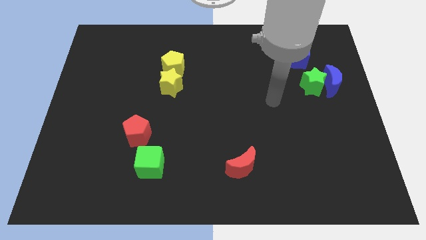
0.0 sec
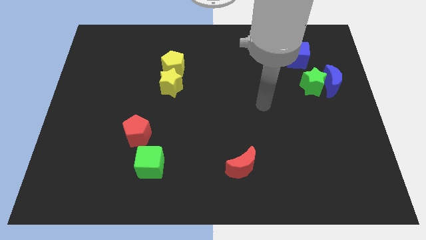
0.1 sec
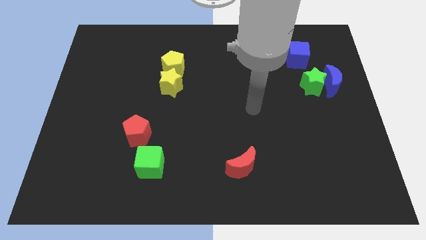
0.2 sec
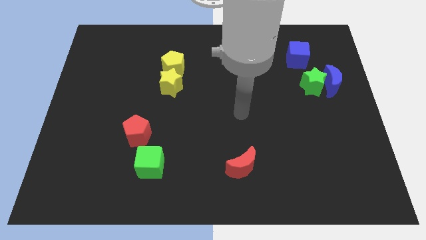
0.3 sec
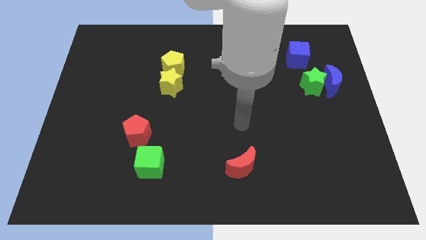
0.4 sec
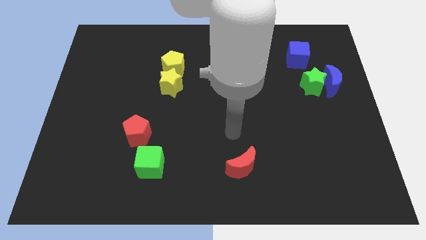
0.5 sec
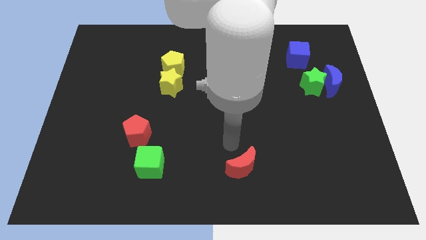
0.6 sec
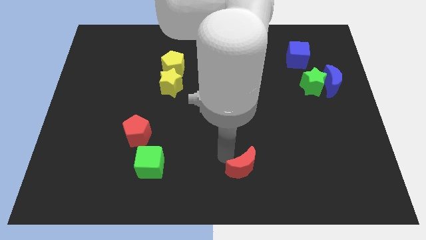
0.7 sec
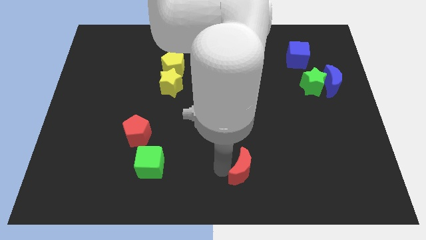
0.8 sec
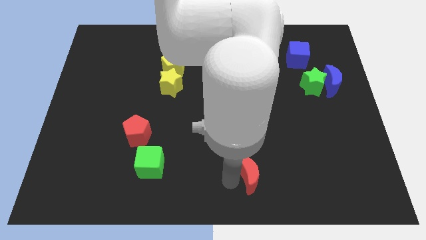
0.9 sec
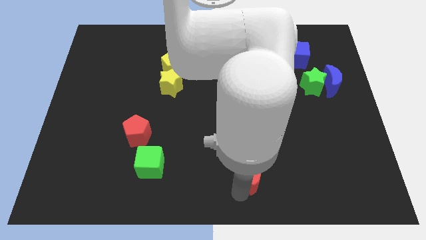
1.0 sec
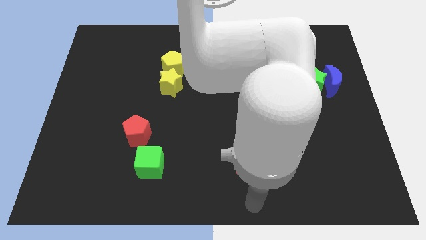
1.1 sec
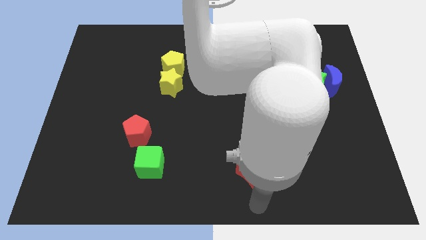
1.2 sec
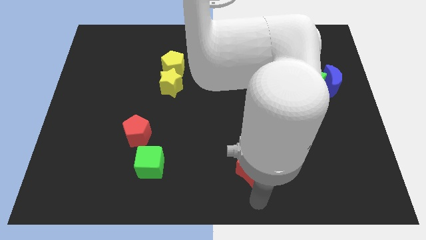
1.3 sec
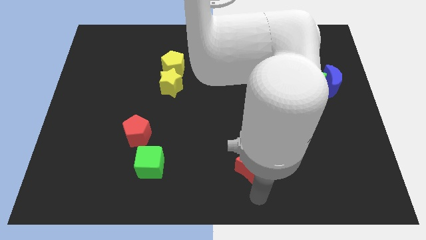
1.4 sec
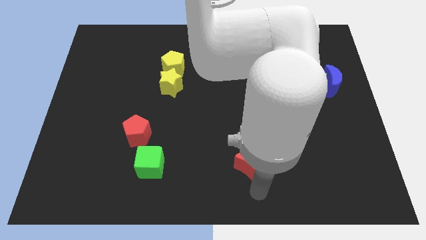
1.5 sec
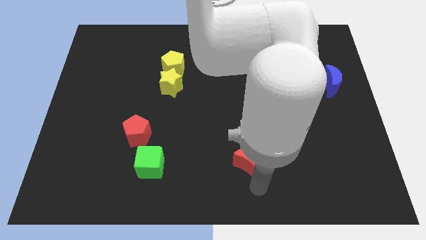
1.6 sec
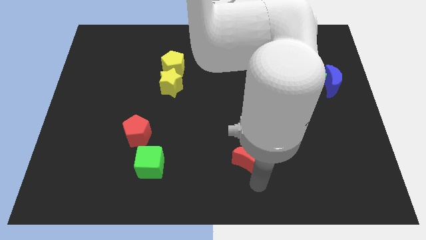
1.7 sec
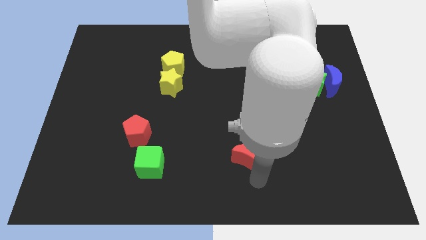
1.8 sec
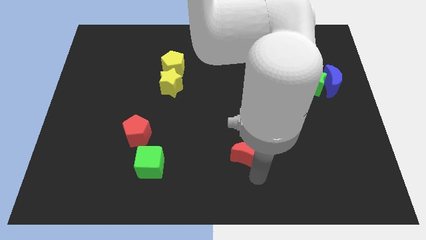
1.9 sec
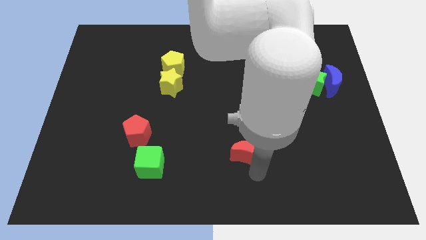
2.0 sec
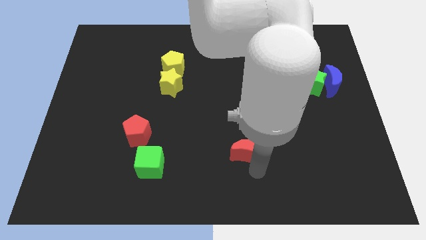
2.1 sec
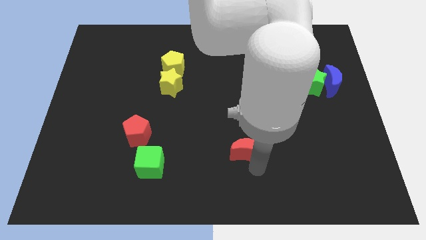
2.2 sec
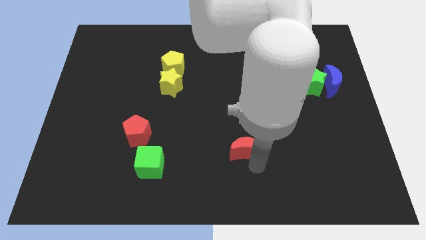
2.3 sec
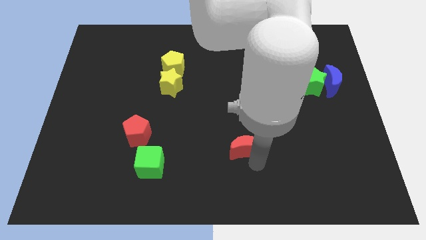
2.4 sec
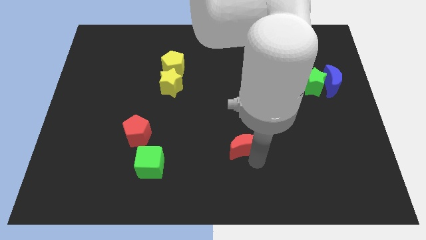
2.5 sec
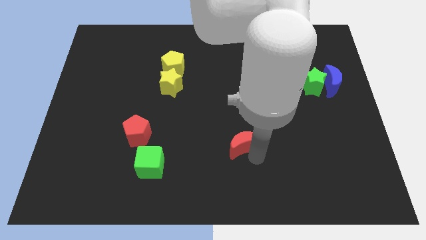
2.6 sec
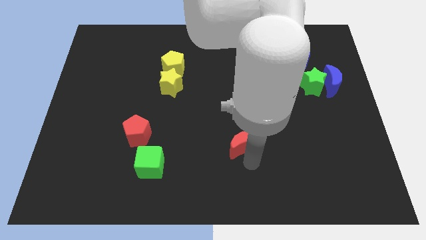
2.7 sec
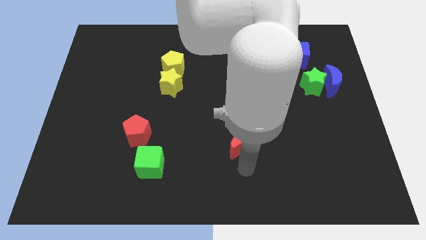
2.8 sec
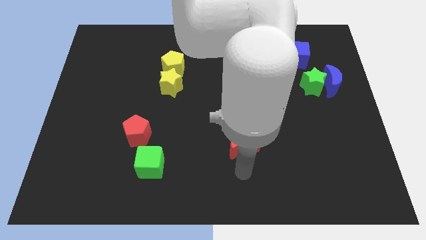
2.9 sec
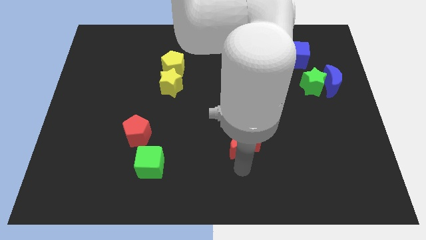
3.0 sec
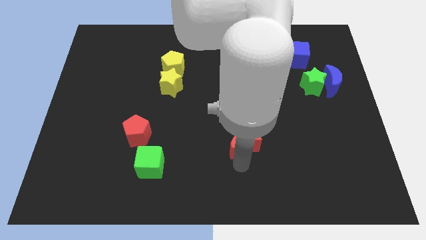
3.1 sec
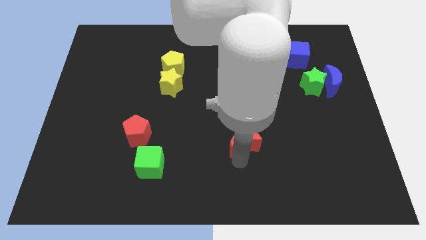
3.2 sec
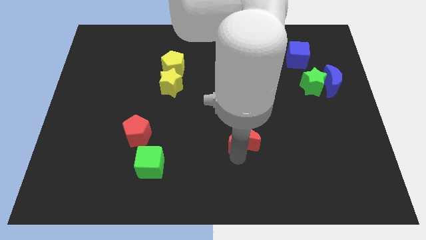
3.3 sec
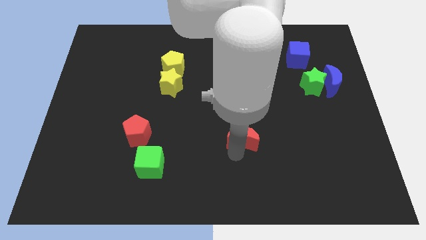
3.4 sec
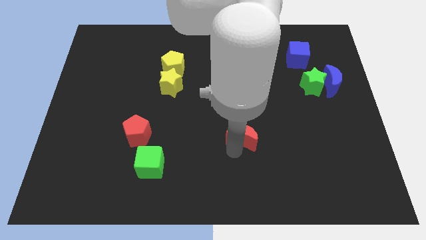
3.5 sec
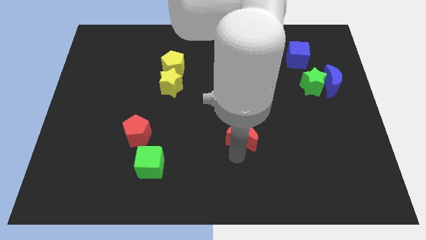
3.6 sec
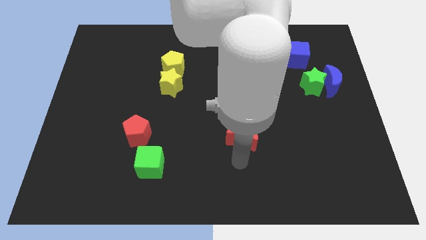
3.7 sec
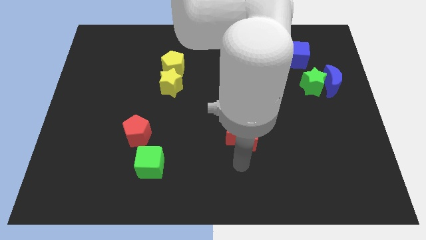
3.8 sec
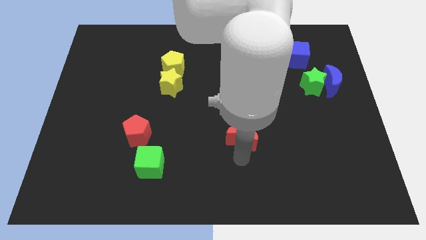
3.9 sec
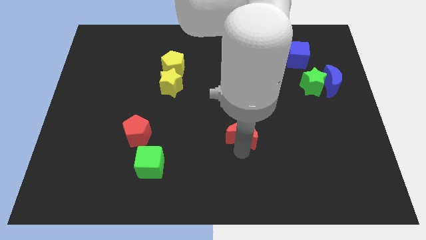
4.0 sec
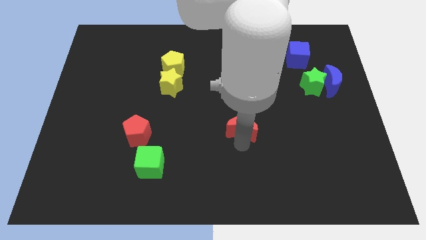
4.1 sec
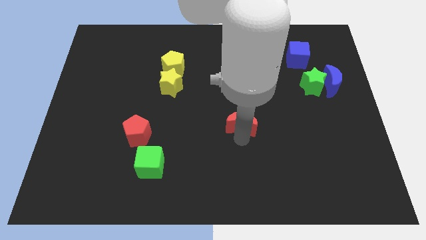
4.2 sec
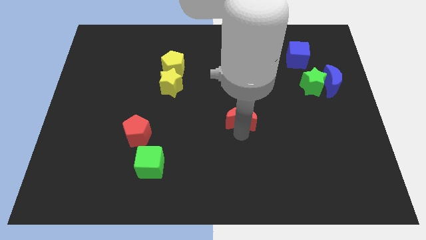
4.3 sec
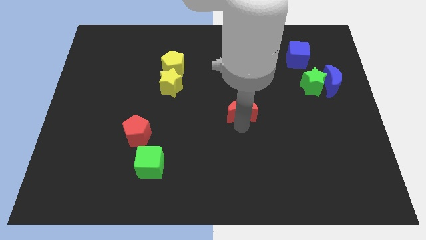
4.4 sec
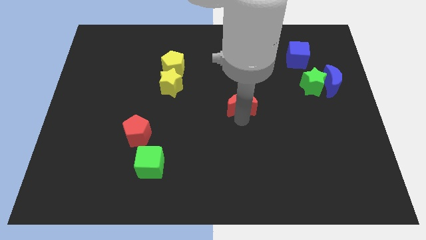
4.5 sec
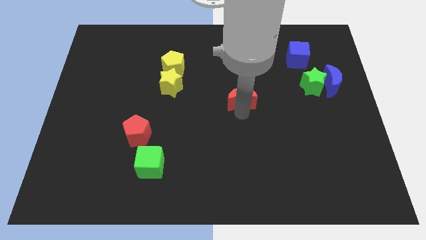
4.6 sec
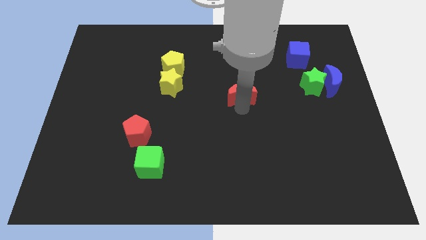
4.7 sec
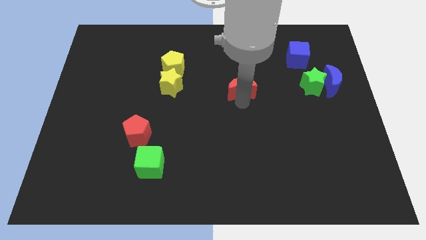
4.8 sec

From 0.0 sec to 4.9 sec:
move the red moon upwards

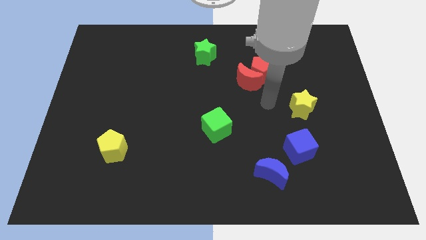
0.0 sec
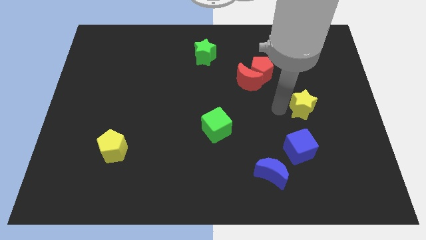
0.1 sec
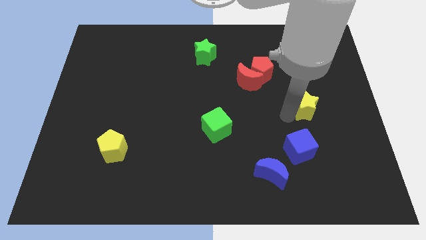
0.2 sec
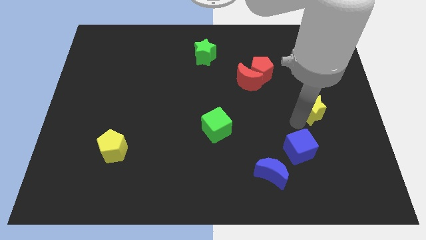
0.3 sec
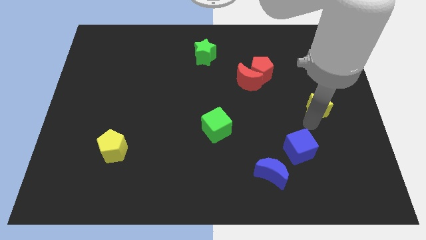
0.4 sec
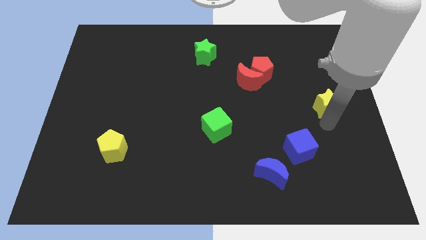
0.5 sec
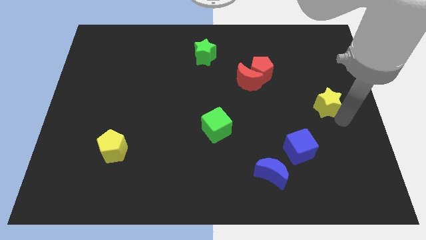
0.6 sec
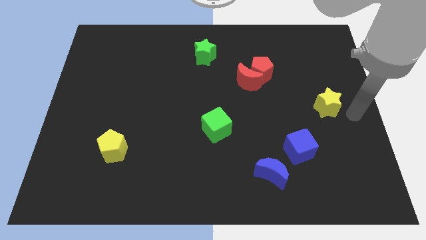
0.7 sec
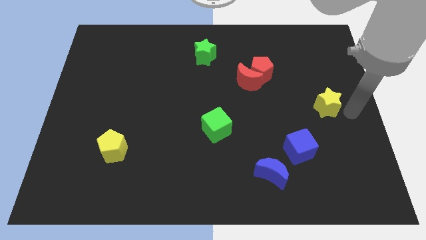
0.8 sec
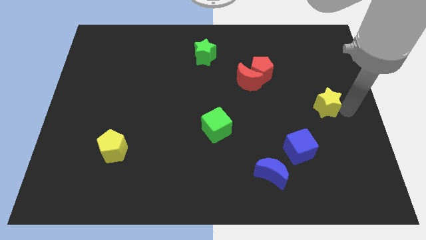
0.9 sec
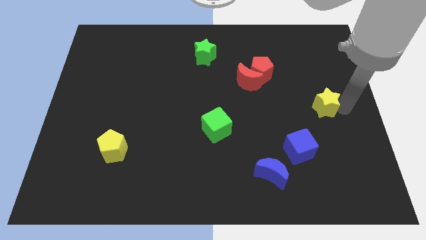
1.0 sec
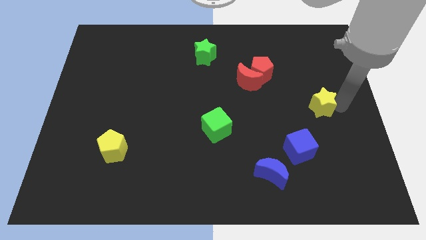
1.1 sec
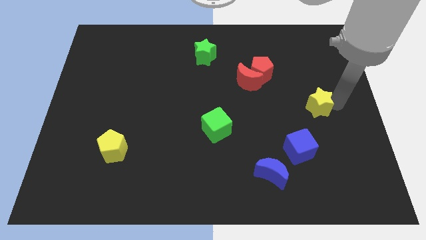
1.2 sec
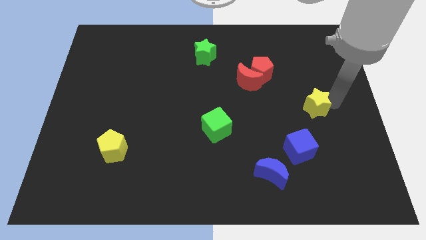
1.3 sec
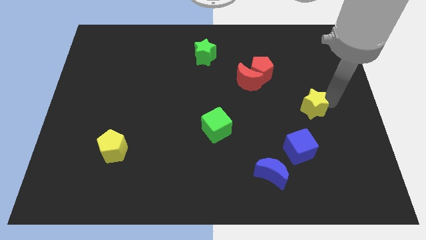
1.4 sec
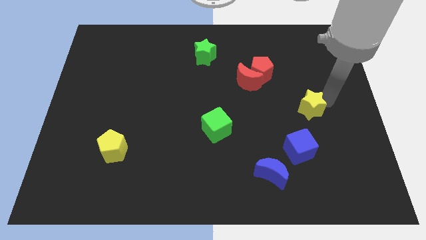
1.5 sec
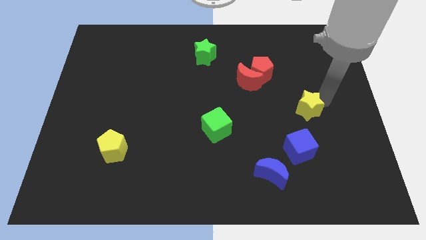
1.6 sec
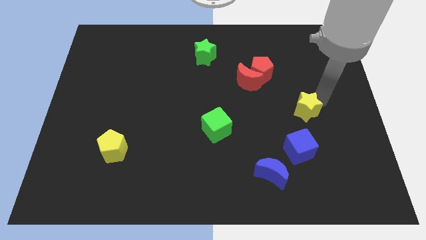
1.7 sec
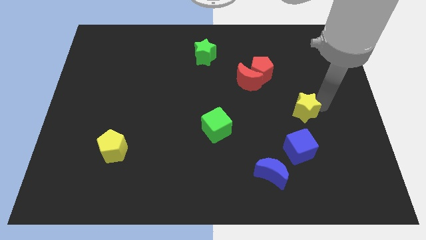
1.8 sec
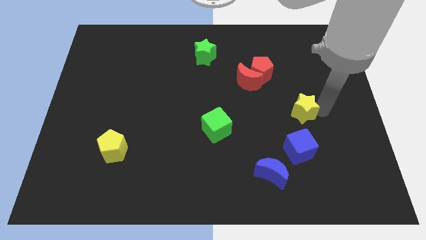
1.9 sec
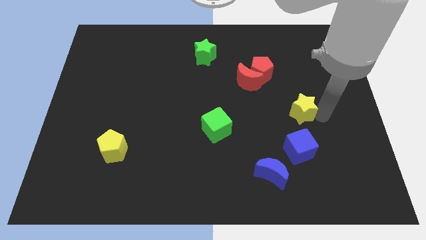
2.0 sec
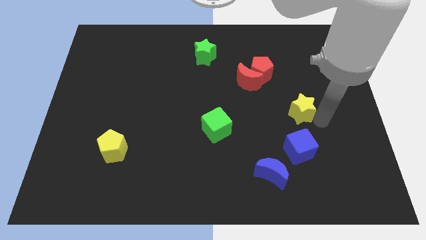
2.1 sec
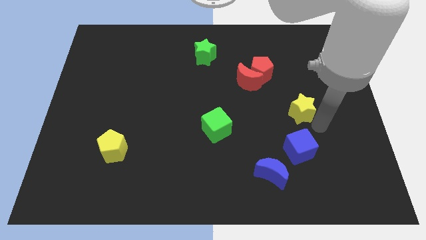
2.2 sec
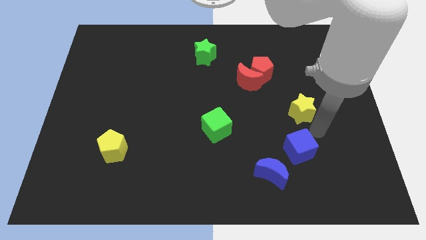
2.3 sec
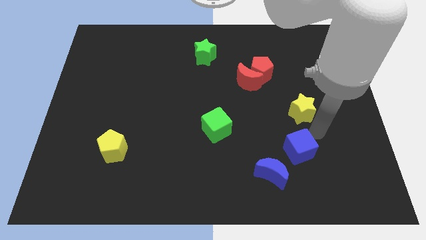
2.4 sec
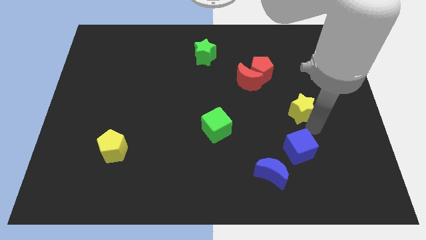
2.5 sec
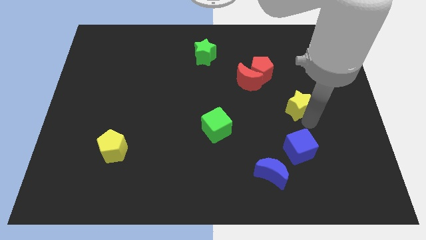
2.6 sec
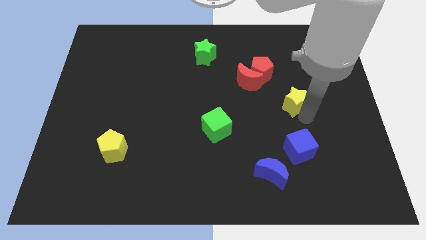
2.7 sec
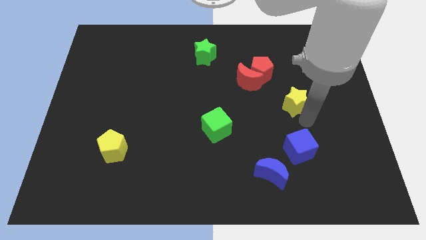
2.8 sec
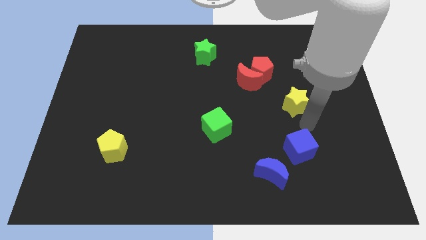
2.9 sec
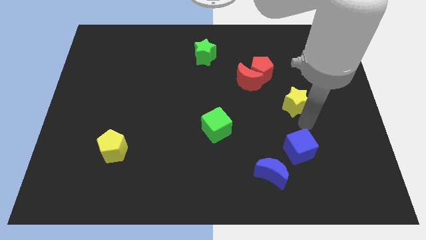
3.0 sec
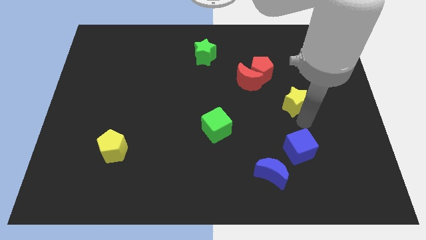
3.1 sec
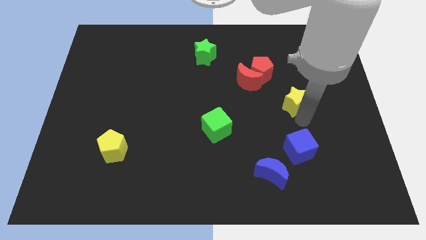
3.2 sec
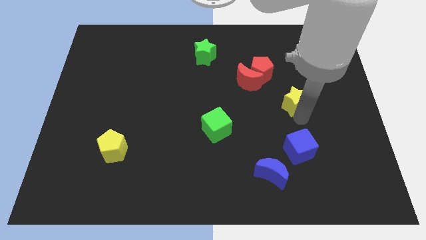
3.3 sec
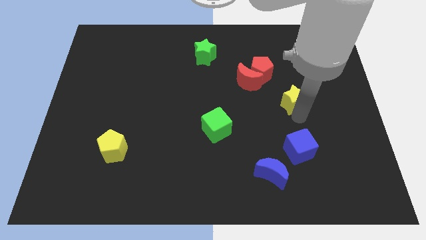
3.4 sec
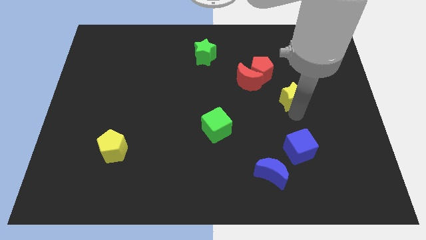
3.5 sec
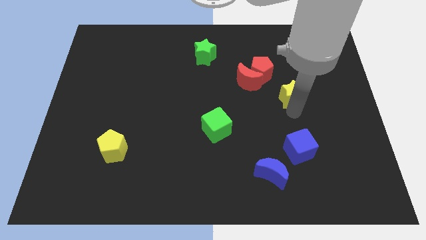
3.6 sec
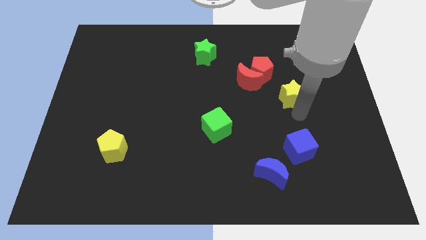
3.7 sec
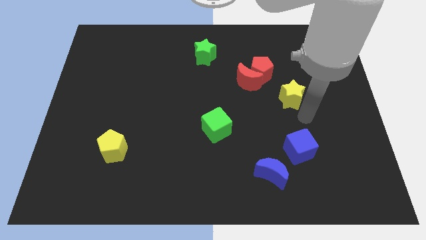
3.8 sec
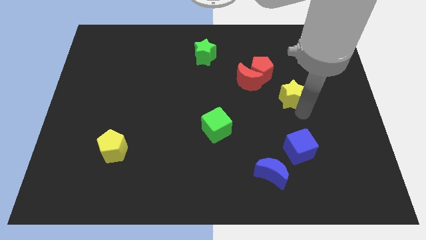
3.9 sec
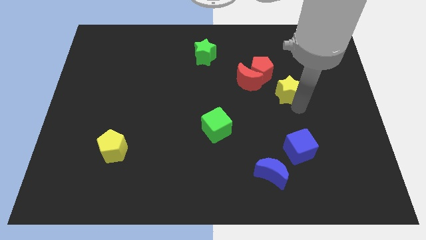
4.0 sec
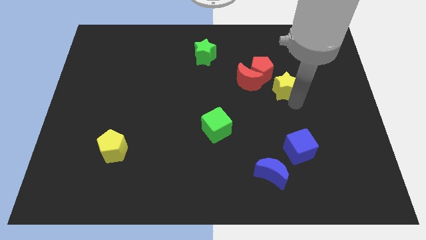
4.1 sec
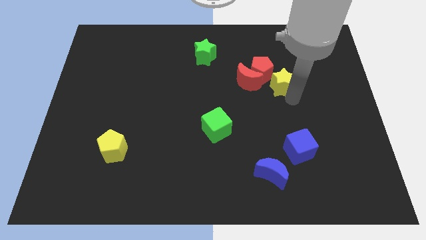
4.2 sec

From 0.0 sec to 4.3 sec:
push the yellow star a little up and then to the left
